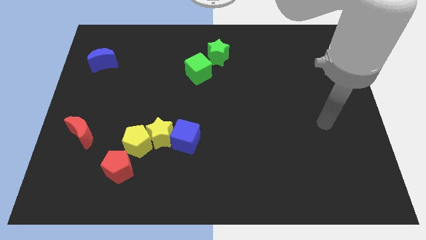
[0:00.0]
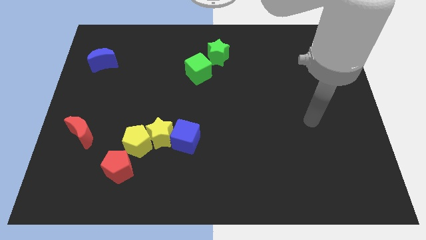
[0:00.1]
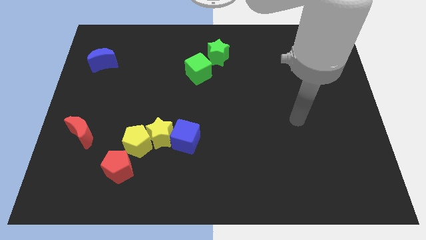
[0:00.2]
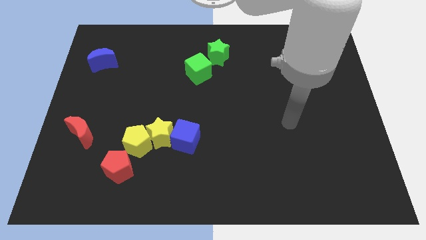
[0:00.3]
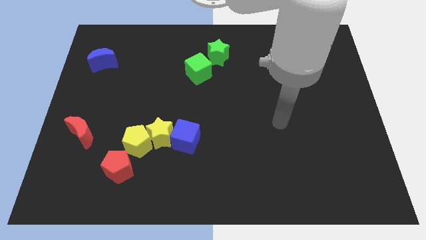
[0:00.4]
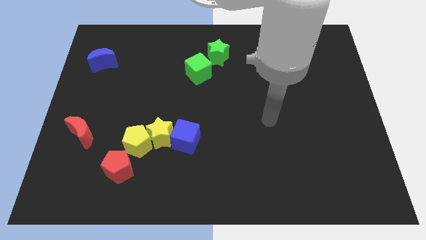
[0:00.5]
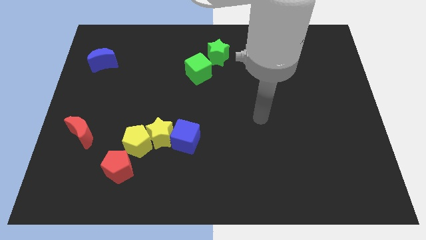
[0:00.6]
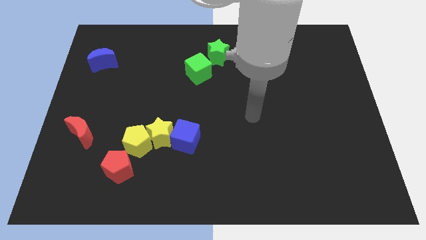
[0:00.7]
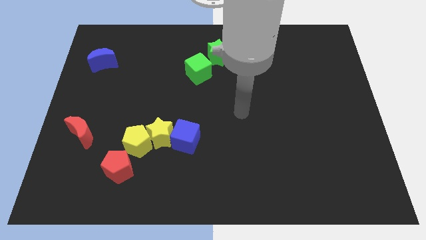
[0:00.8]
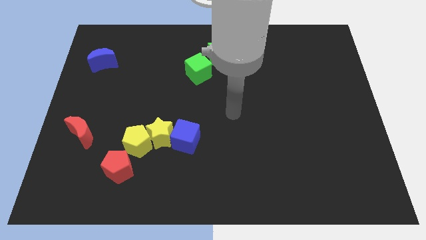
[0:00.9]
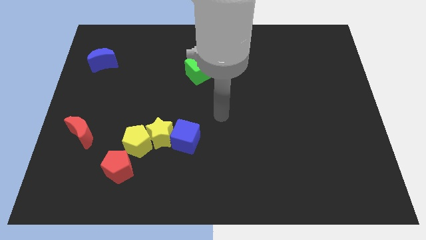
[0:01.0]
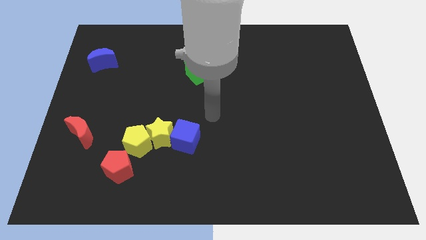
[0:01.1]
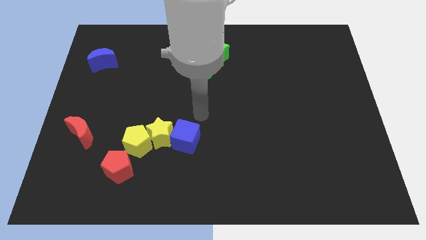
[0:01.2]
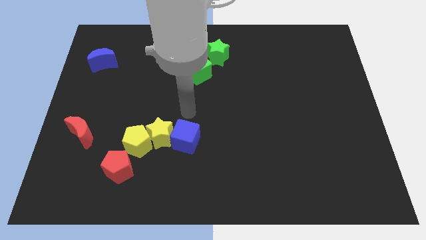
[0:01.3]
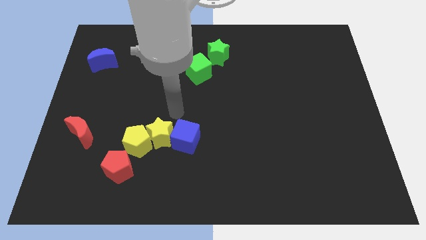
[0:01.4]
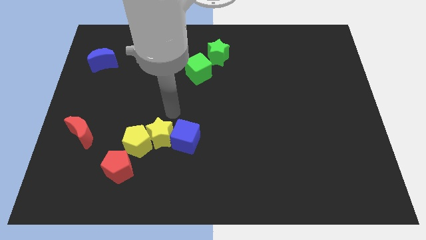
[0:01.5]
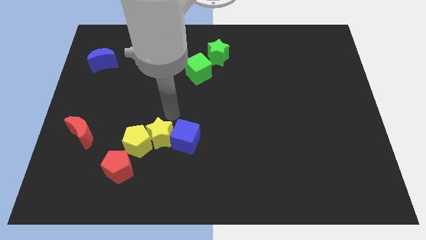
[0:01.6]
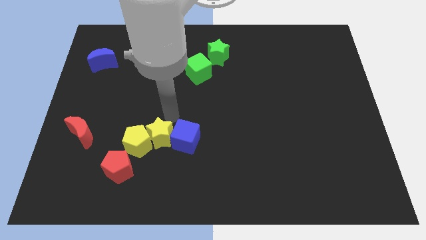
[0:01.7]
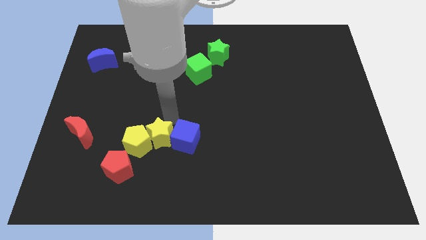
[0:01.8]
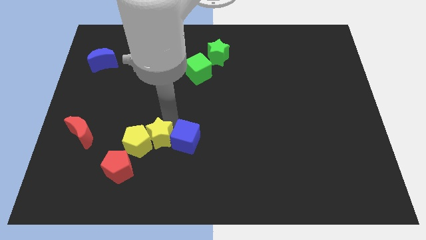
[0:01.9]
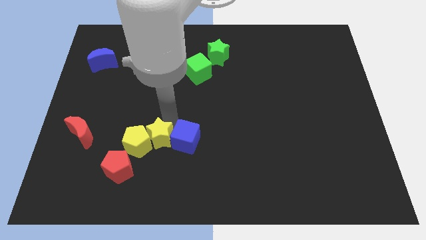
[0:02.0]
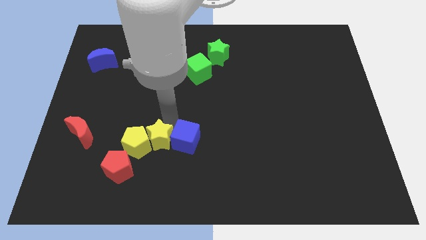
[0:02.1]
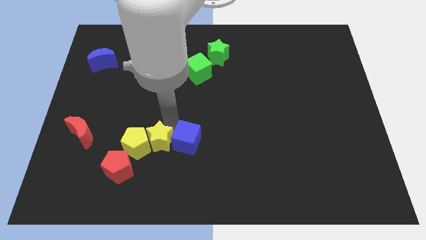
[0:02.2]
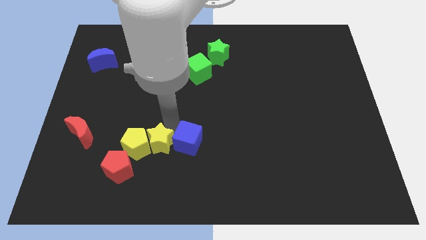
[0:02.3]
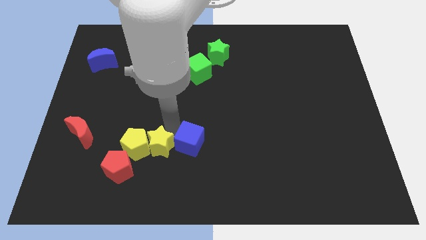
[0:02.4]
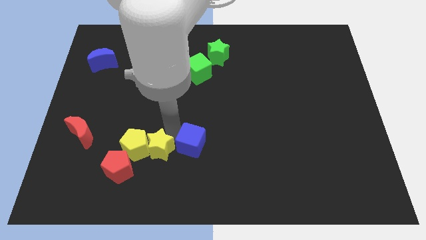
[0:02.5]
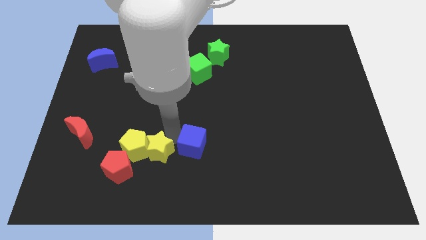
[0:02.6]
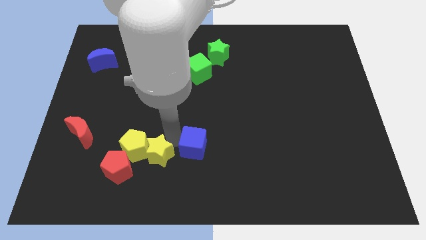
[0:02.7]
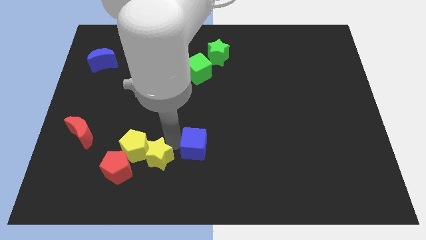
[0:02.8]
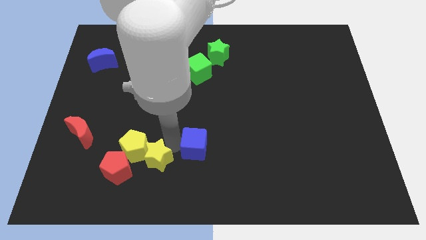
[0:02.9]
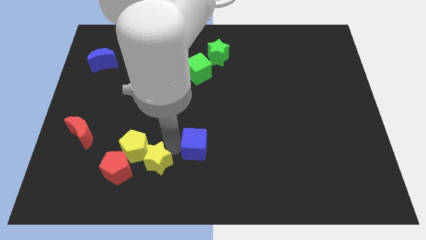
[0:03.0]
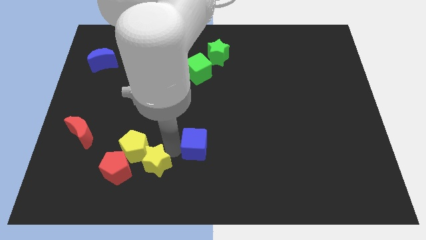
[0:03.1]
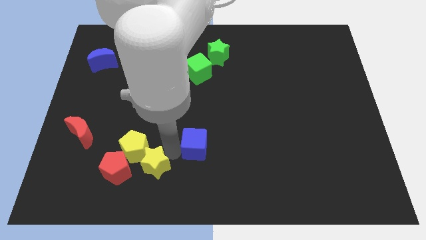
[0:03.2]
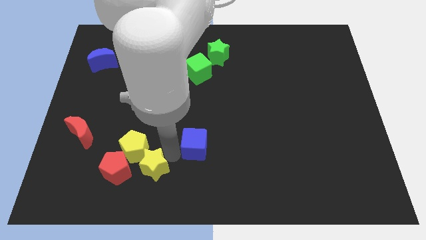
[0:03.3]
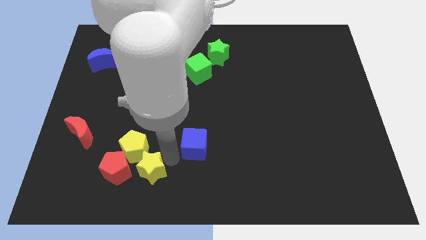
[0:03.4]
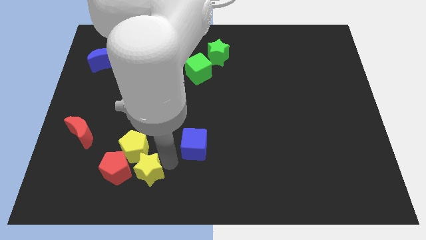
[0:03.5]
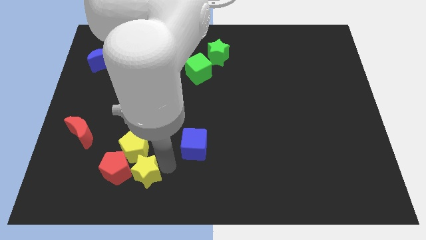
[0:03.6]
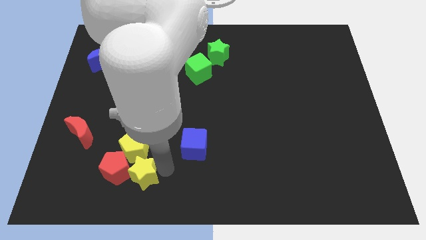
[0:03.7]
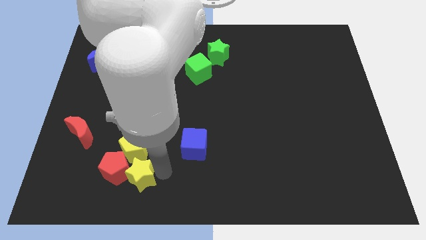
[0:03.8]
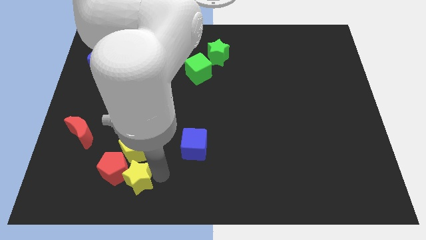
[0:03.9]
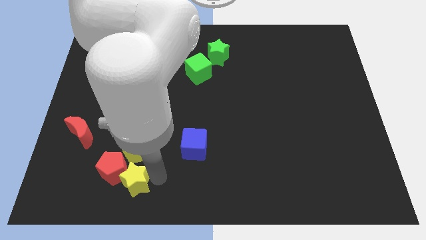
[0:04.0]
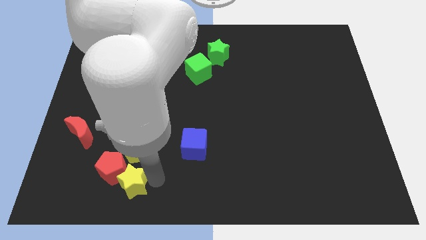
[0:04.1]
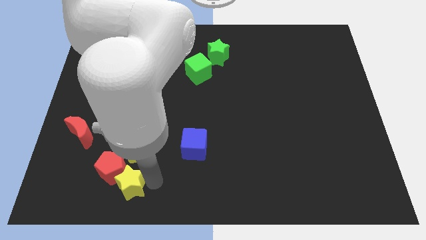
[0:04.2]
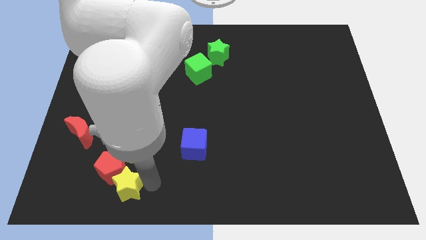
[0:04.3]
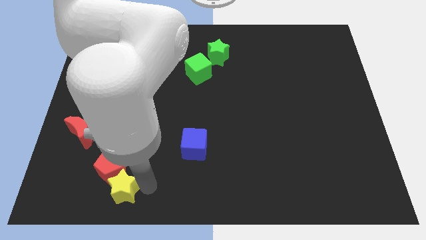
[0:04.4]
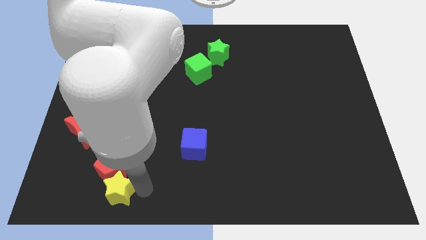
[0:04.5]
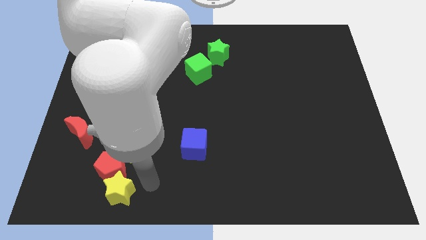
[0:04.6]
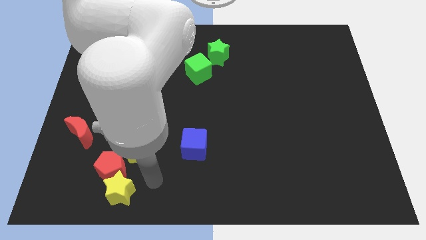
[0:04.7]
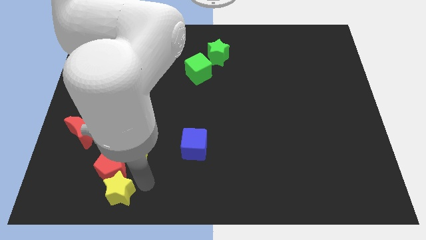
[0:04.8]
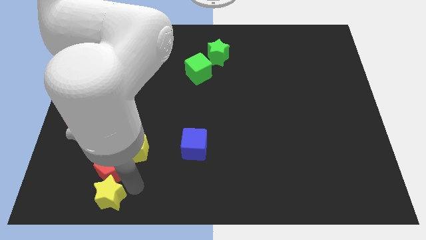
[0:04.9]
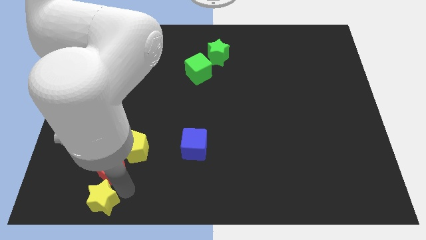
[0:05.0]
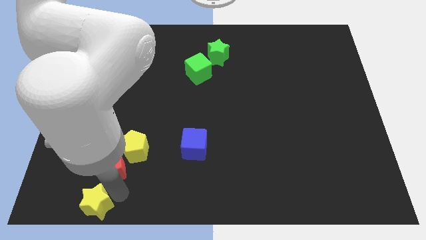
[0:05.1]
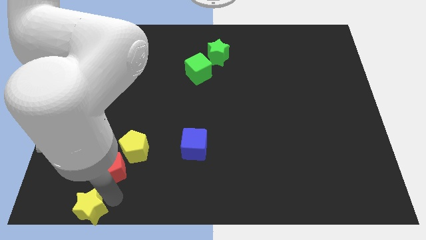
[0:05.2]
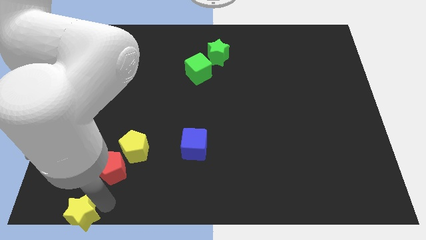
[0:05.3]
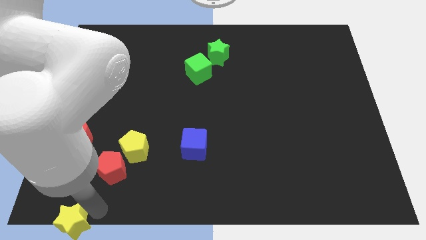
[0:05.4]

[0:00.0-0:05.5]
move the yellow star to the bottom left of the board

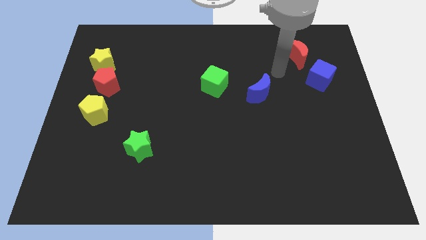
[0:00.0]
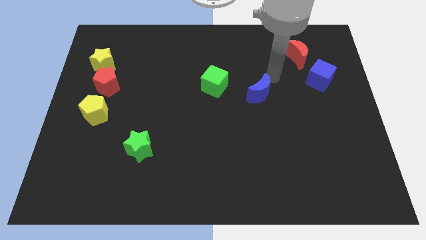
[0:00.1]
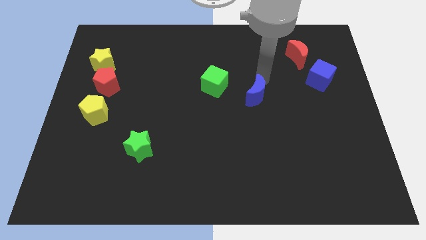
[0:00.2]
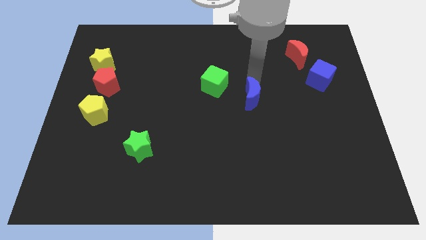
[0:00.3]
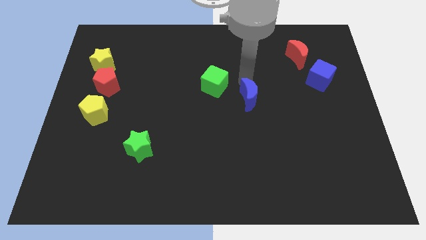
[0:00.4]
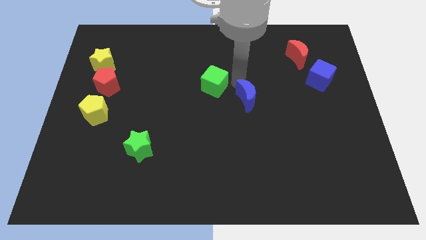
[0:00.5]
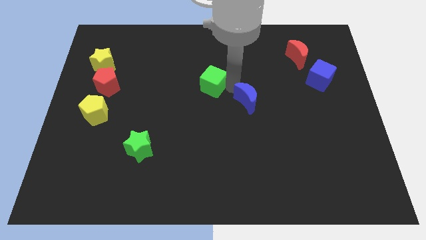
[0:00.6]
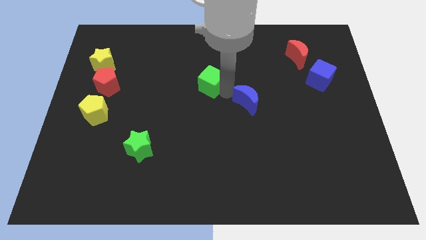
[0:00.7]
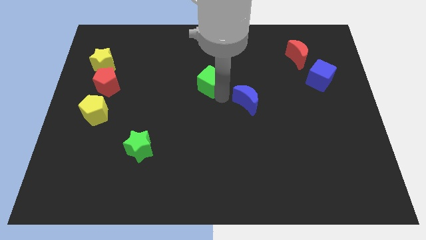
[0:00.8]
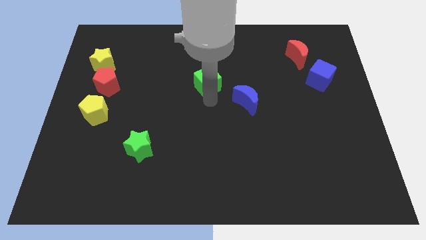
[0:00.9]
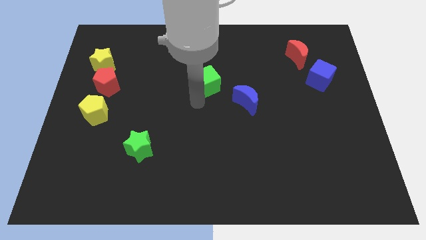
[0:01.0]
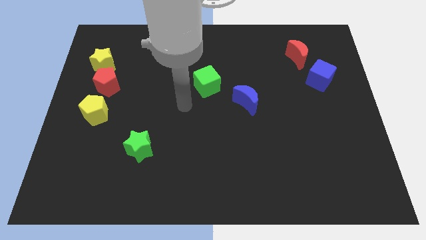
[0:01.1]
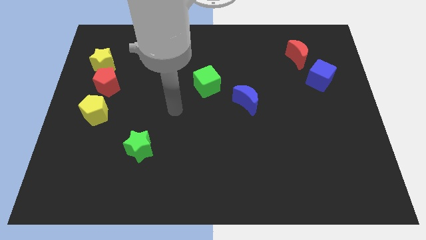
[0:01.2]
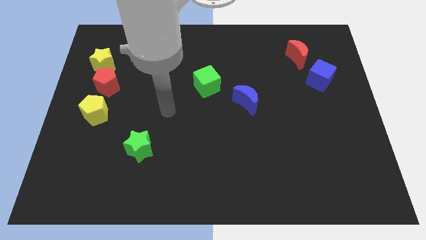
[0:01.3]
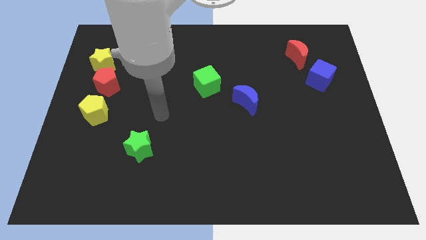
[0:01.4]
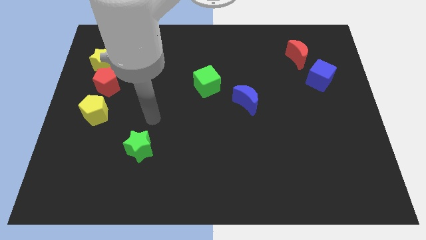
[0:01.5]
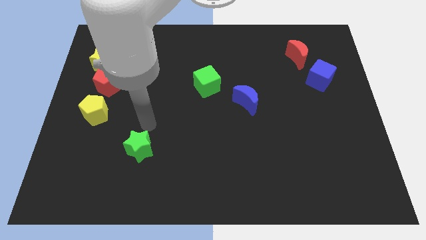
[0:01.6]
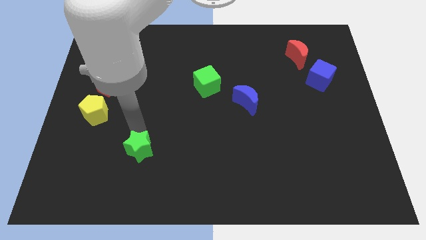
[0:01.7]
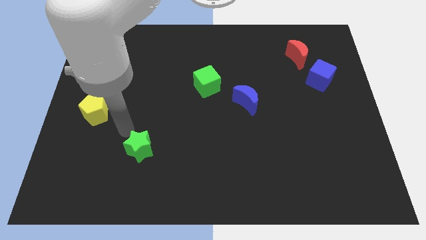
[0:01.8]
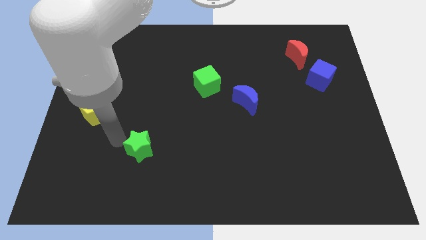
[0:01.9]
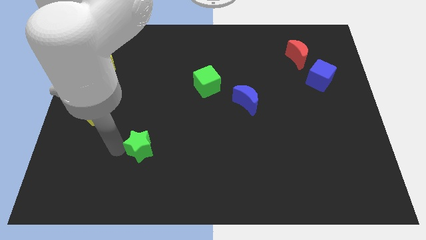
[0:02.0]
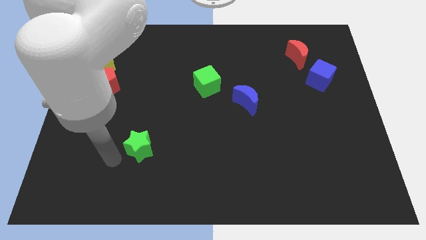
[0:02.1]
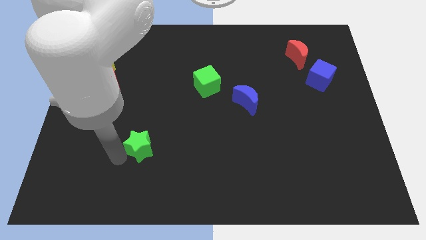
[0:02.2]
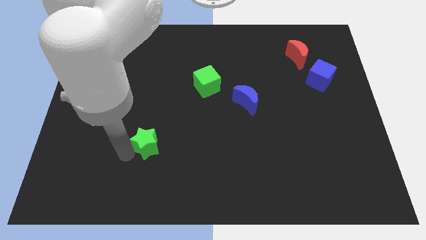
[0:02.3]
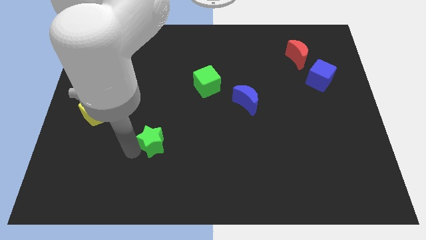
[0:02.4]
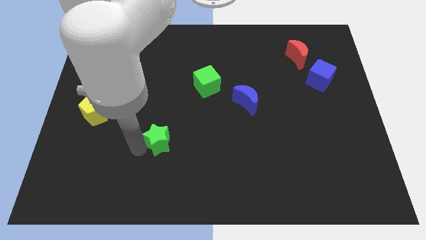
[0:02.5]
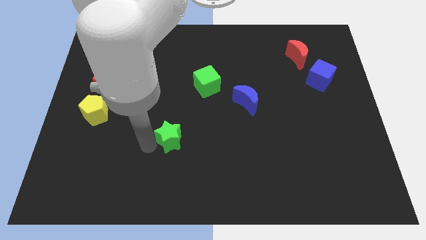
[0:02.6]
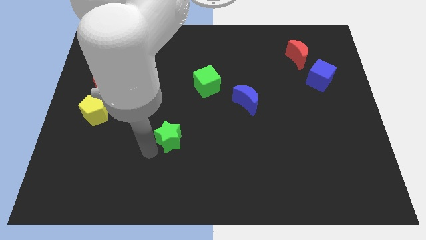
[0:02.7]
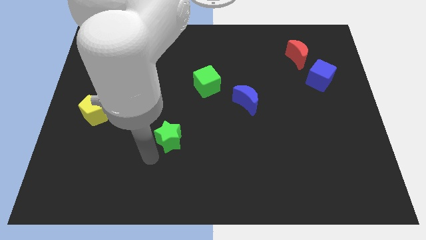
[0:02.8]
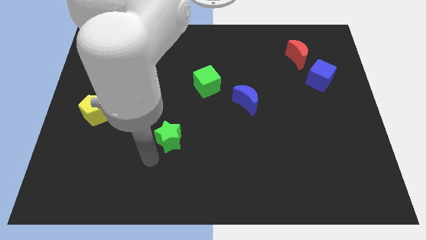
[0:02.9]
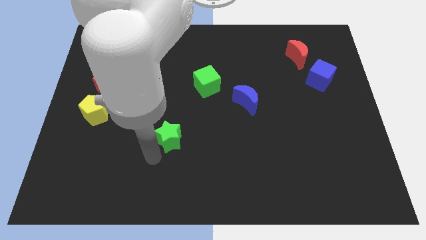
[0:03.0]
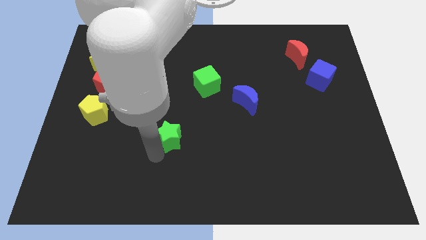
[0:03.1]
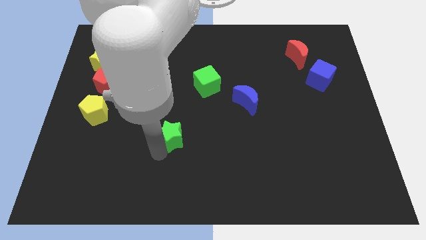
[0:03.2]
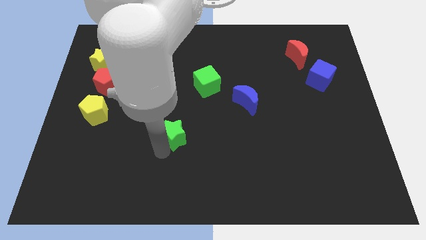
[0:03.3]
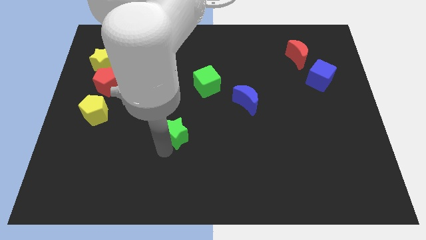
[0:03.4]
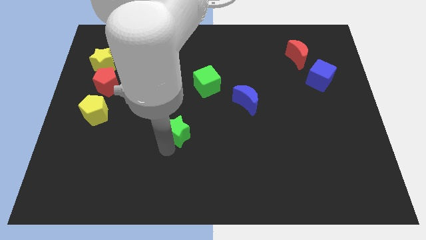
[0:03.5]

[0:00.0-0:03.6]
slide the green star to the middle of the board
